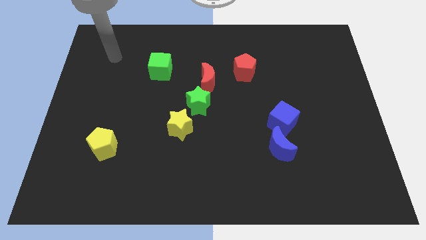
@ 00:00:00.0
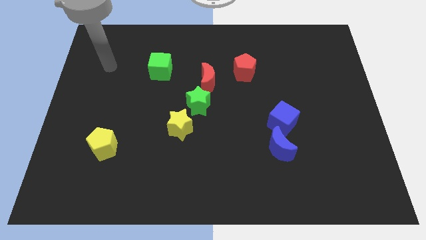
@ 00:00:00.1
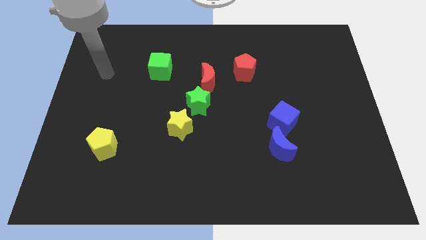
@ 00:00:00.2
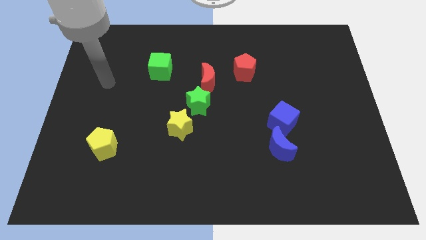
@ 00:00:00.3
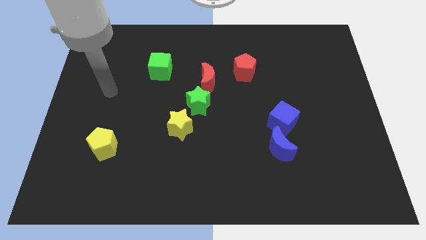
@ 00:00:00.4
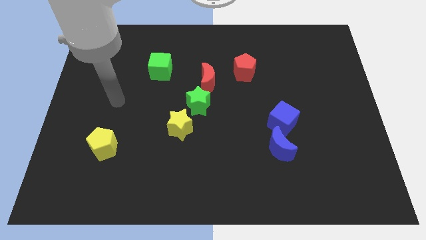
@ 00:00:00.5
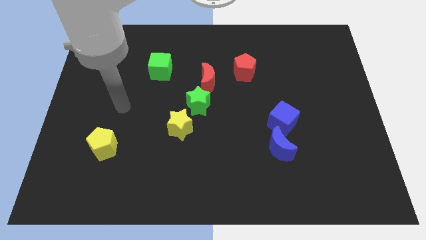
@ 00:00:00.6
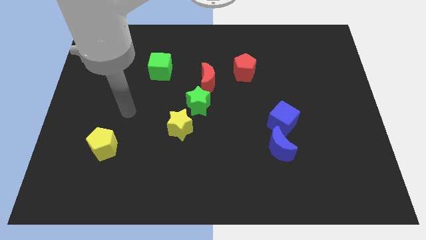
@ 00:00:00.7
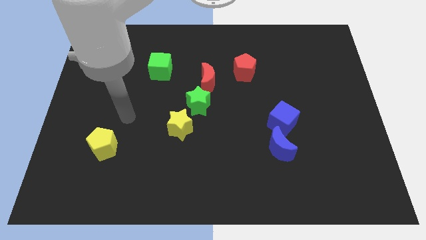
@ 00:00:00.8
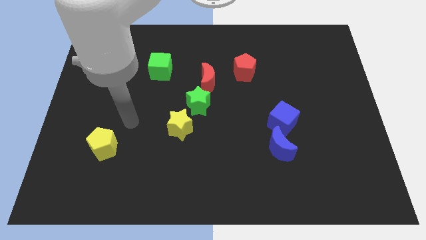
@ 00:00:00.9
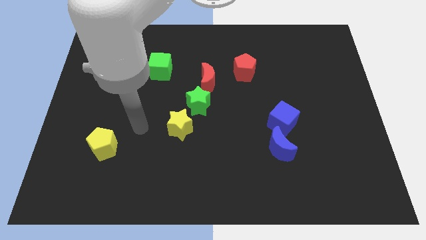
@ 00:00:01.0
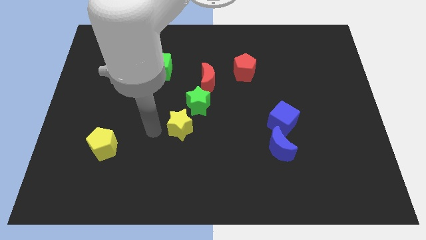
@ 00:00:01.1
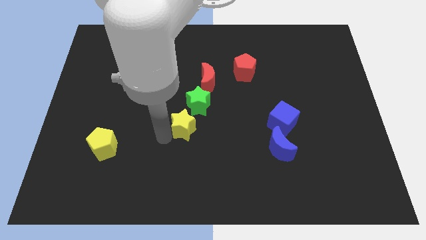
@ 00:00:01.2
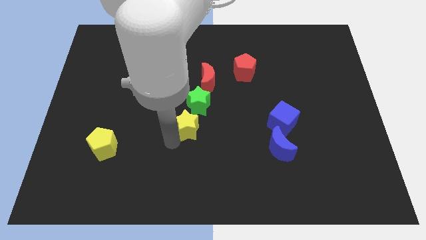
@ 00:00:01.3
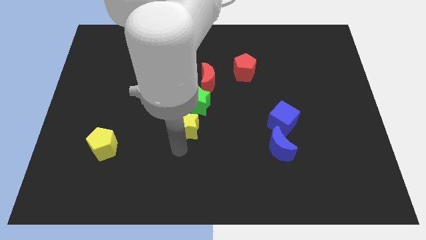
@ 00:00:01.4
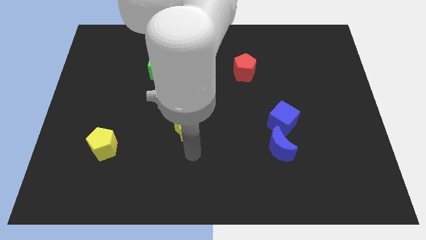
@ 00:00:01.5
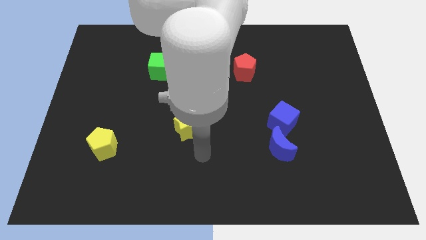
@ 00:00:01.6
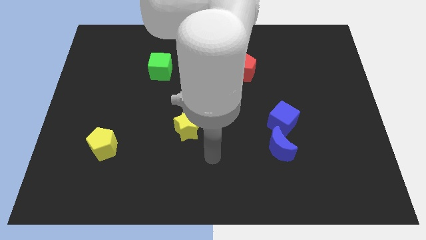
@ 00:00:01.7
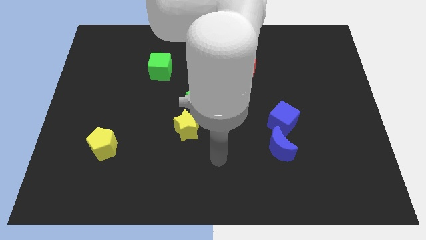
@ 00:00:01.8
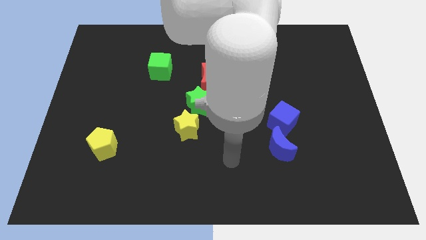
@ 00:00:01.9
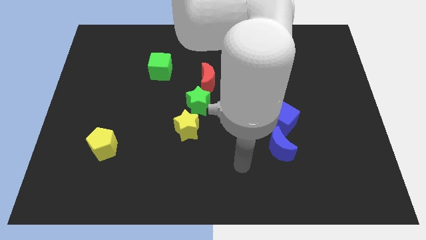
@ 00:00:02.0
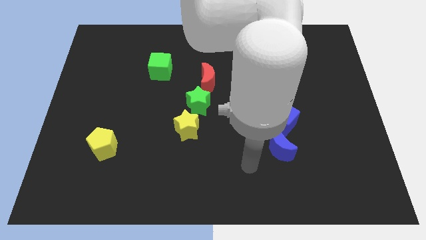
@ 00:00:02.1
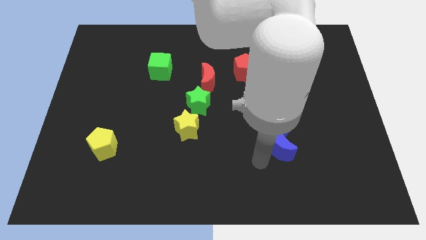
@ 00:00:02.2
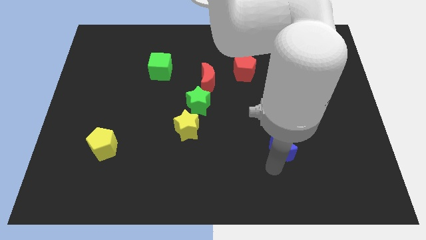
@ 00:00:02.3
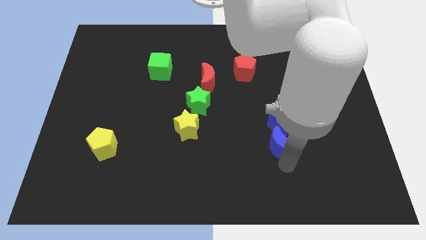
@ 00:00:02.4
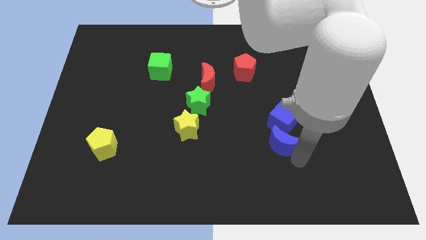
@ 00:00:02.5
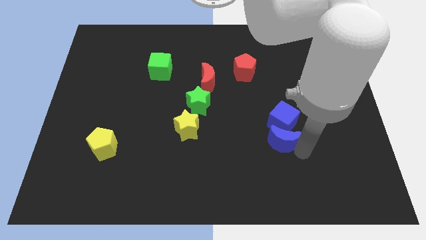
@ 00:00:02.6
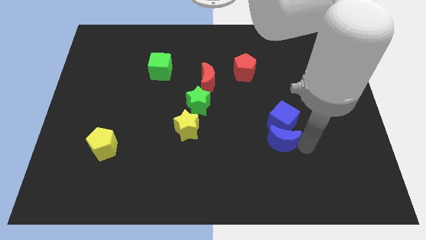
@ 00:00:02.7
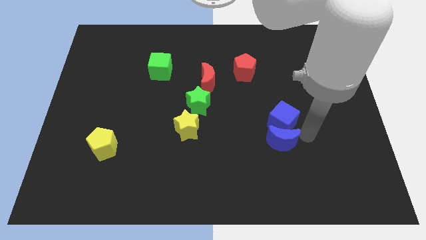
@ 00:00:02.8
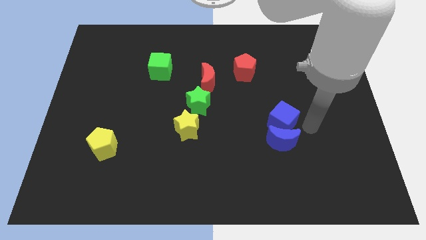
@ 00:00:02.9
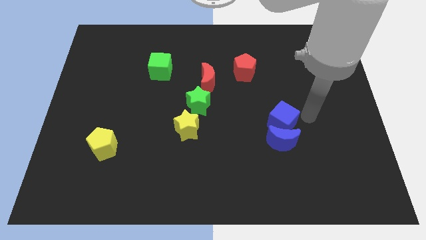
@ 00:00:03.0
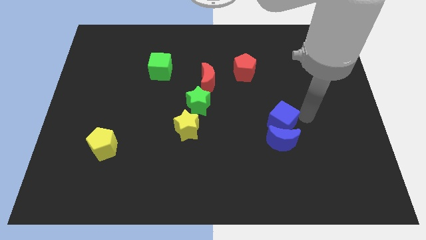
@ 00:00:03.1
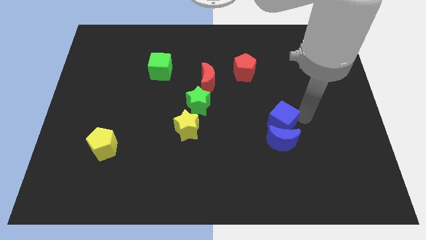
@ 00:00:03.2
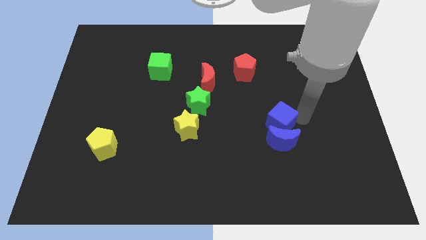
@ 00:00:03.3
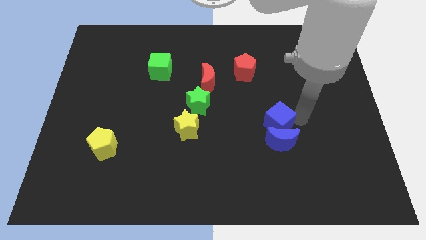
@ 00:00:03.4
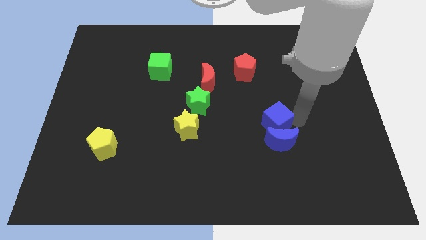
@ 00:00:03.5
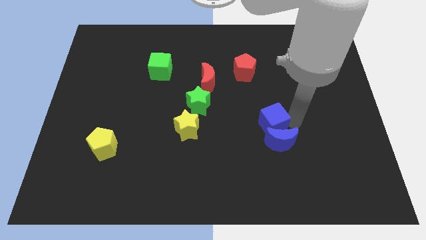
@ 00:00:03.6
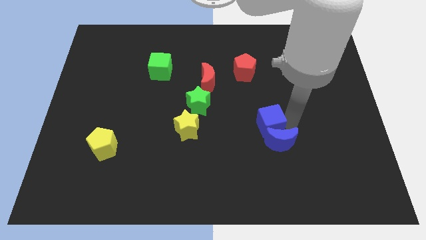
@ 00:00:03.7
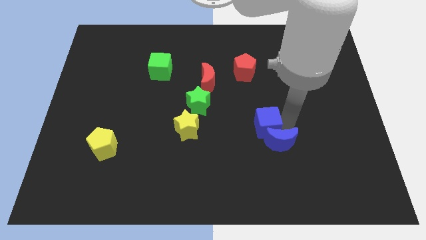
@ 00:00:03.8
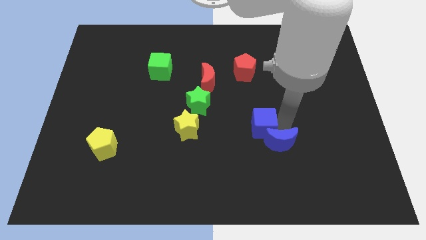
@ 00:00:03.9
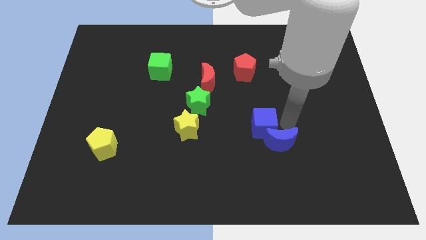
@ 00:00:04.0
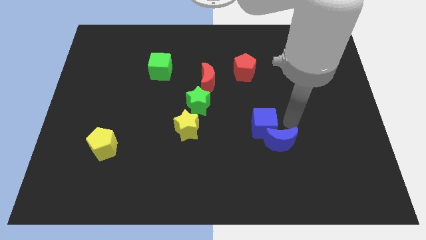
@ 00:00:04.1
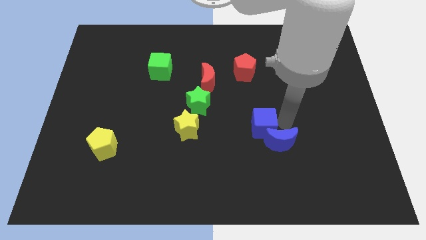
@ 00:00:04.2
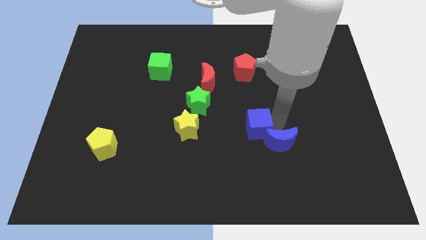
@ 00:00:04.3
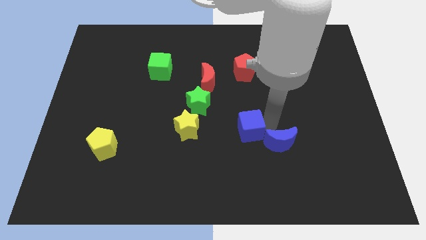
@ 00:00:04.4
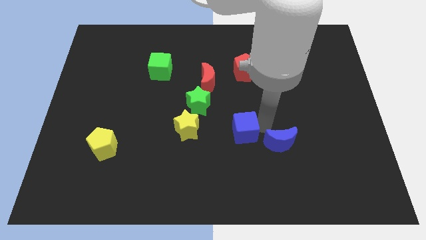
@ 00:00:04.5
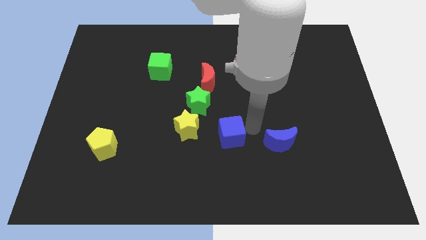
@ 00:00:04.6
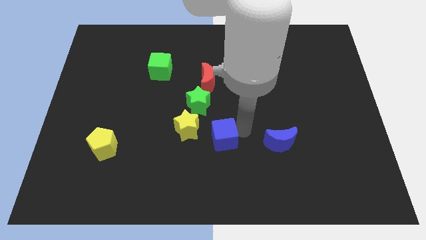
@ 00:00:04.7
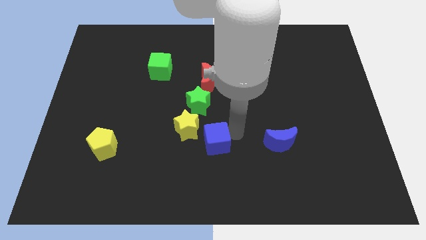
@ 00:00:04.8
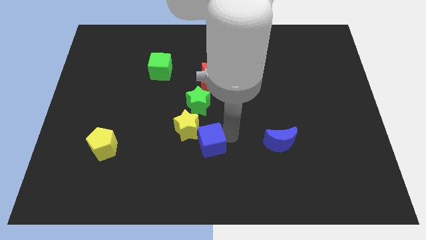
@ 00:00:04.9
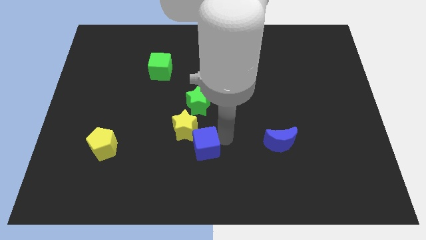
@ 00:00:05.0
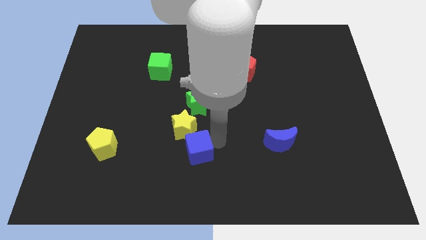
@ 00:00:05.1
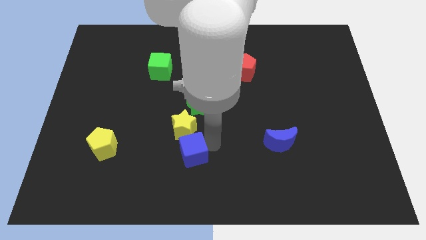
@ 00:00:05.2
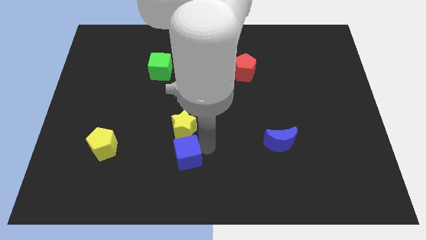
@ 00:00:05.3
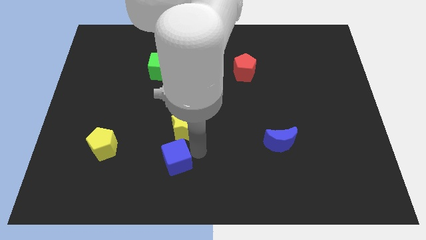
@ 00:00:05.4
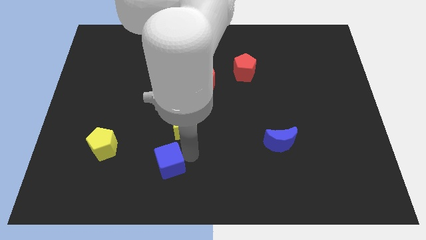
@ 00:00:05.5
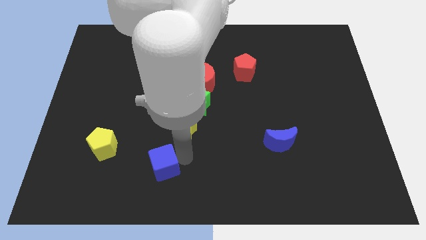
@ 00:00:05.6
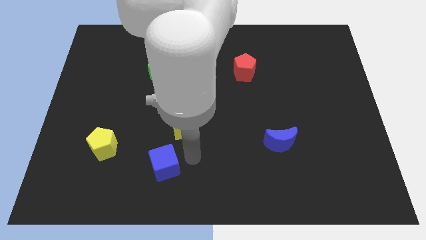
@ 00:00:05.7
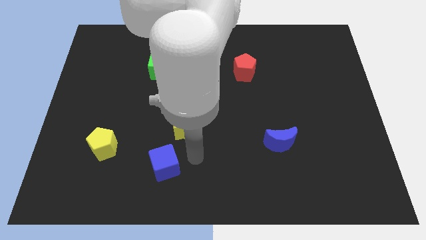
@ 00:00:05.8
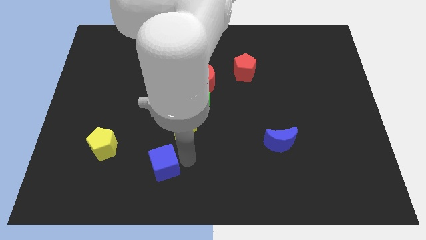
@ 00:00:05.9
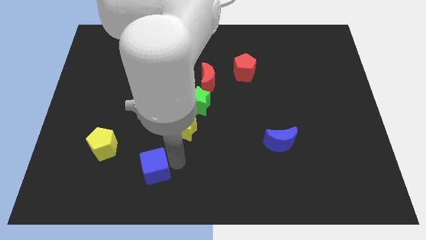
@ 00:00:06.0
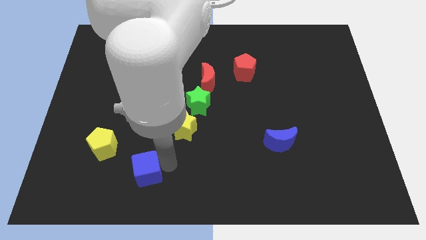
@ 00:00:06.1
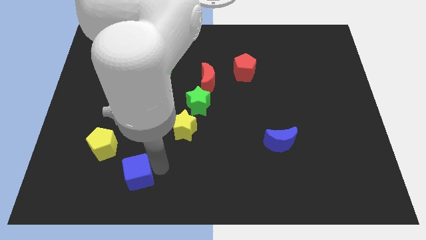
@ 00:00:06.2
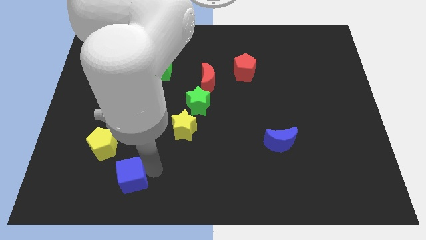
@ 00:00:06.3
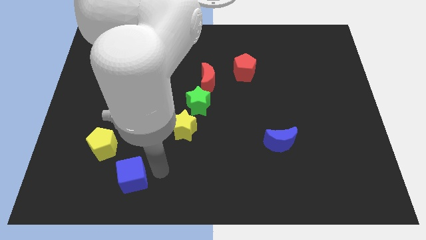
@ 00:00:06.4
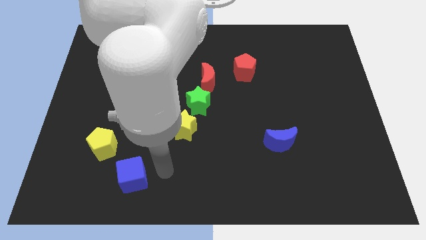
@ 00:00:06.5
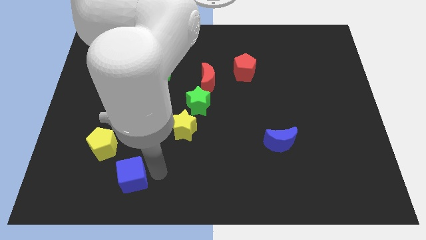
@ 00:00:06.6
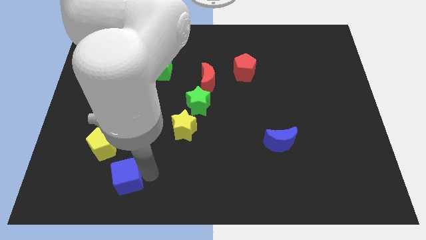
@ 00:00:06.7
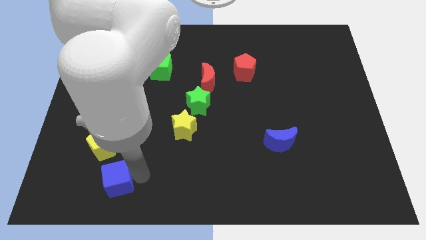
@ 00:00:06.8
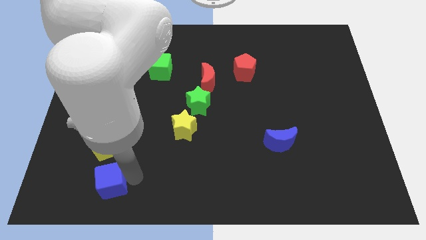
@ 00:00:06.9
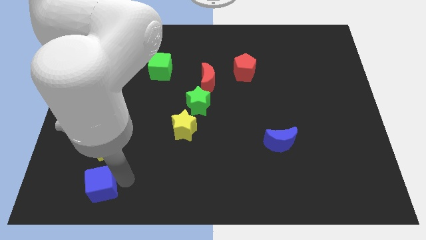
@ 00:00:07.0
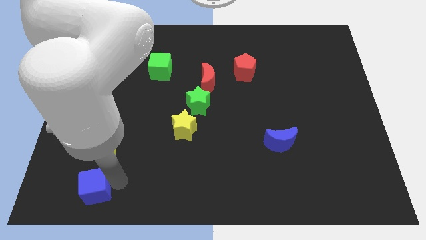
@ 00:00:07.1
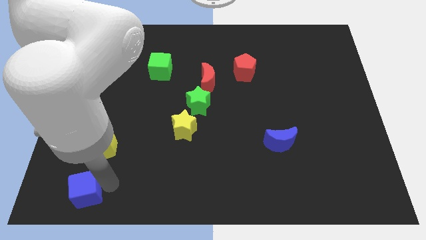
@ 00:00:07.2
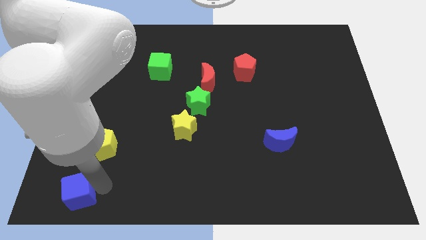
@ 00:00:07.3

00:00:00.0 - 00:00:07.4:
move the blue cube to the bottom left of the board
